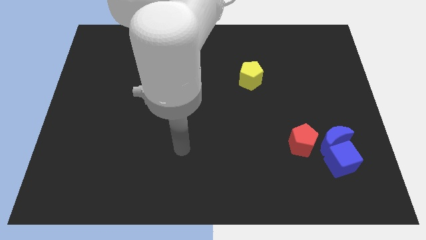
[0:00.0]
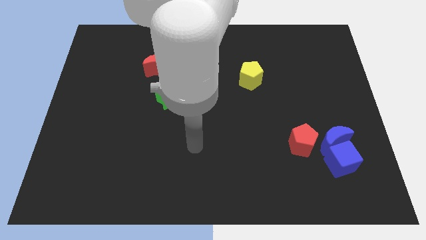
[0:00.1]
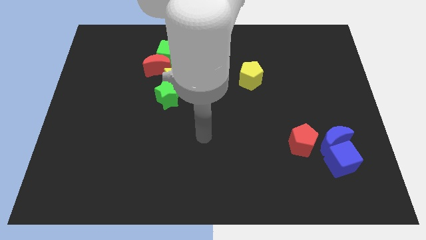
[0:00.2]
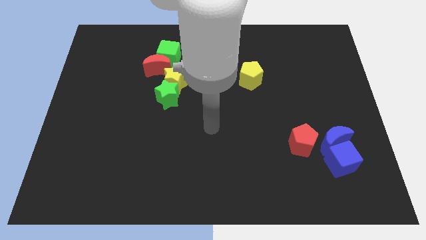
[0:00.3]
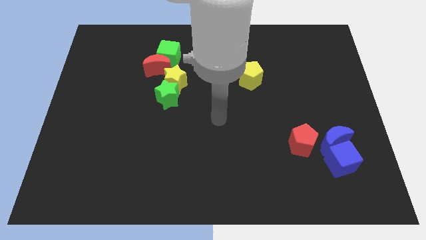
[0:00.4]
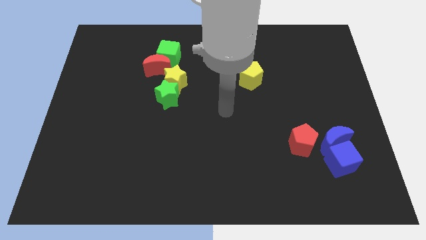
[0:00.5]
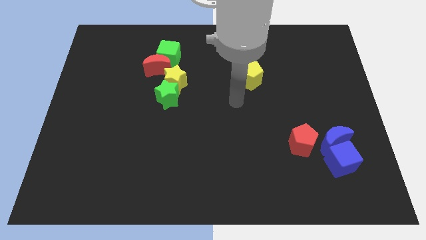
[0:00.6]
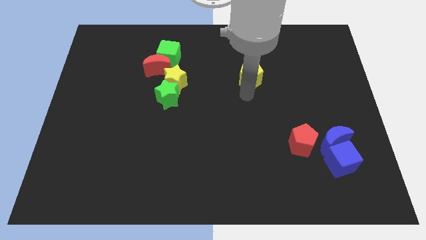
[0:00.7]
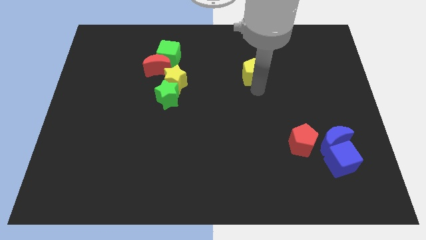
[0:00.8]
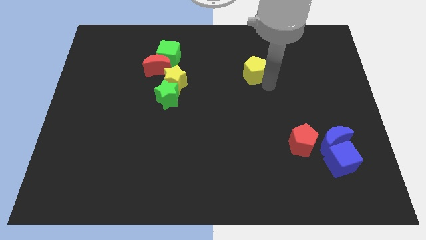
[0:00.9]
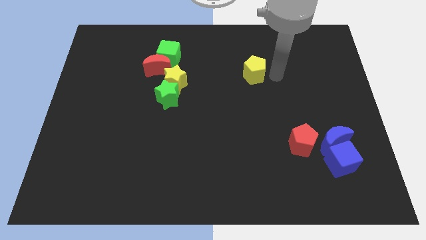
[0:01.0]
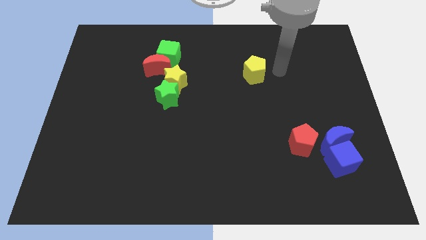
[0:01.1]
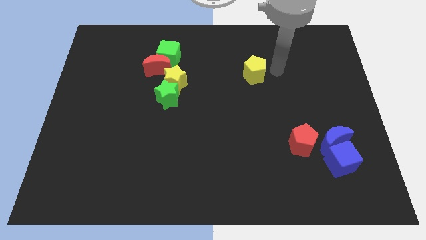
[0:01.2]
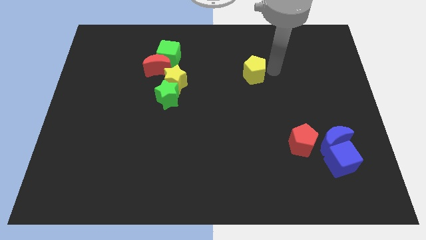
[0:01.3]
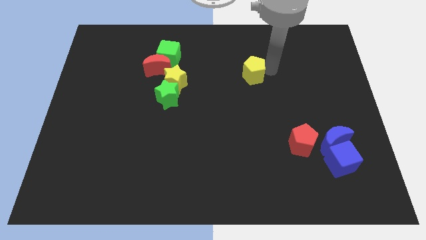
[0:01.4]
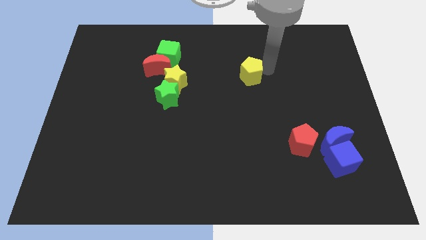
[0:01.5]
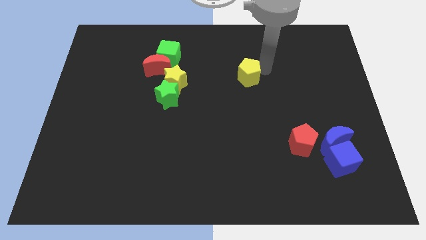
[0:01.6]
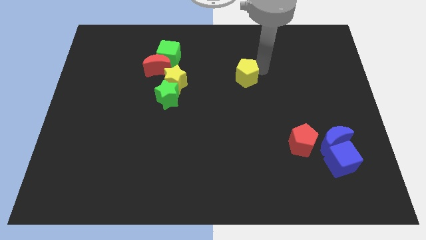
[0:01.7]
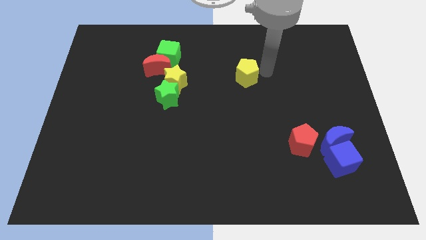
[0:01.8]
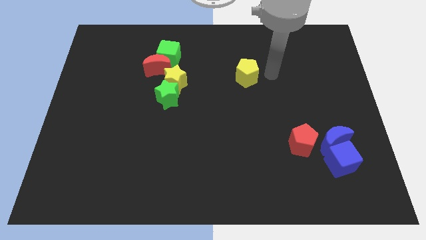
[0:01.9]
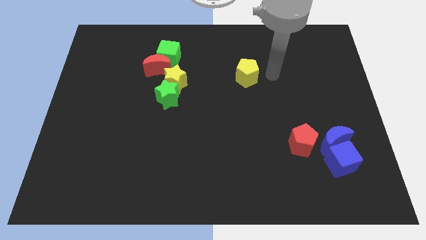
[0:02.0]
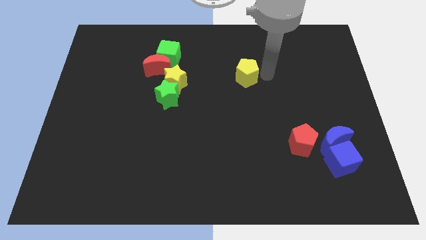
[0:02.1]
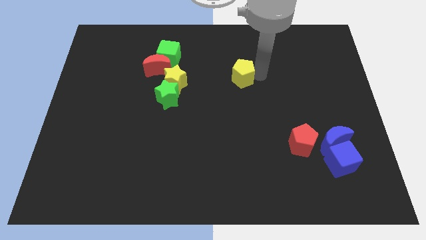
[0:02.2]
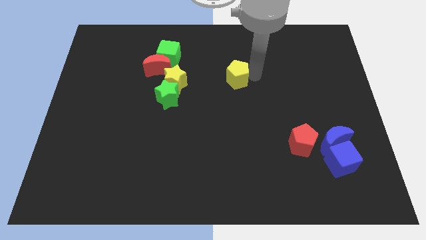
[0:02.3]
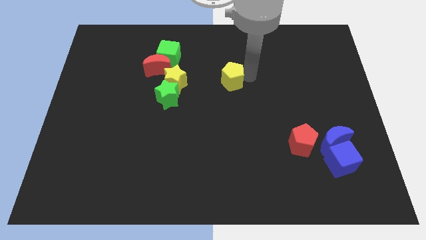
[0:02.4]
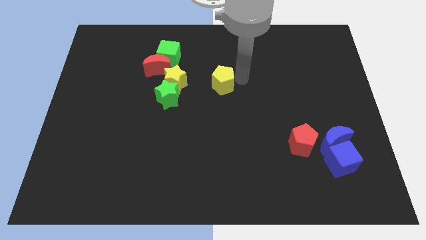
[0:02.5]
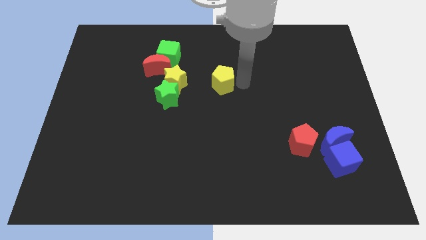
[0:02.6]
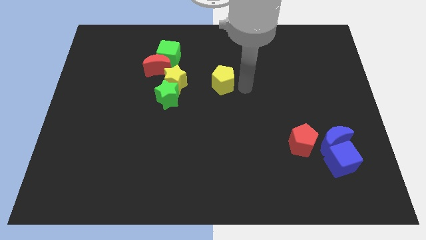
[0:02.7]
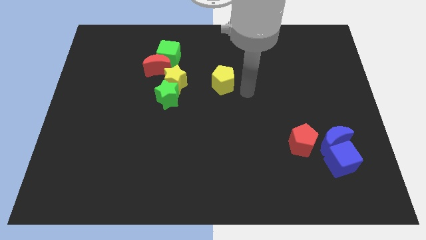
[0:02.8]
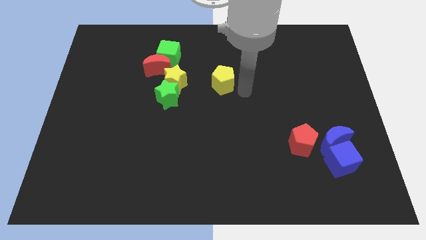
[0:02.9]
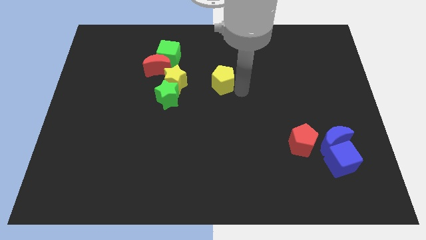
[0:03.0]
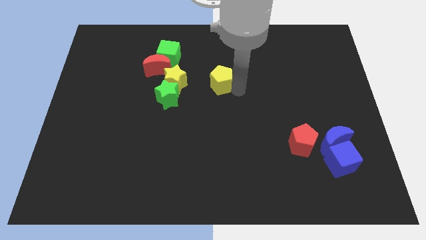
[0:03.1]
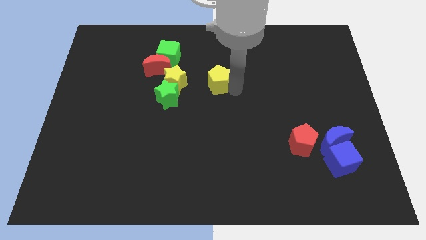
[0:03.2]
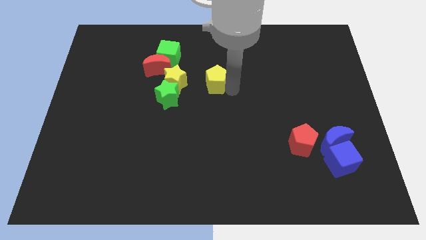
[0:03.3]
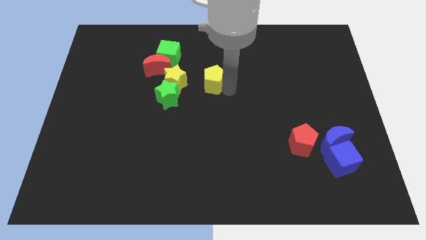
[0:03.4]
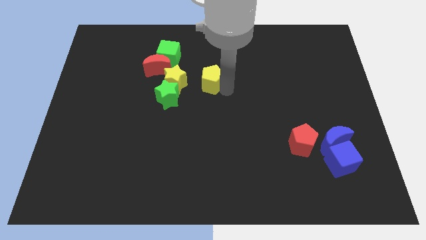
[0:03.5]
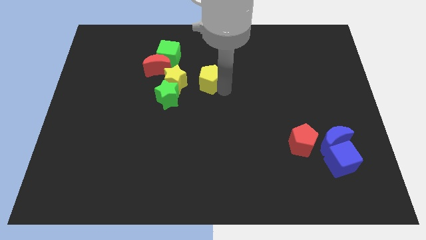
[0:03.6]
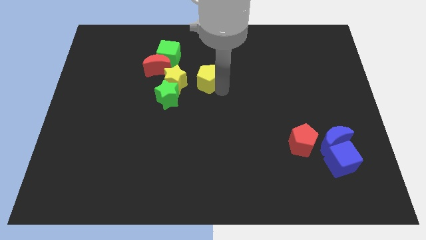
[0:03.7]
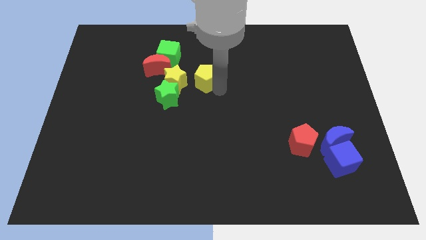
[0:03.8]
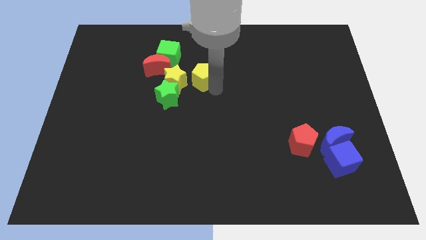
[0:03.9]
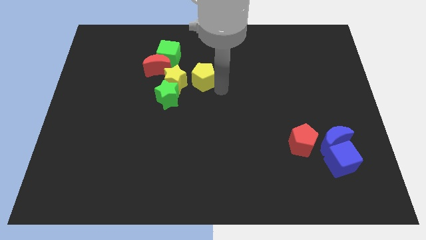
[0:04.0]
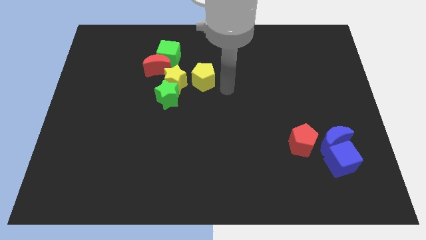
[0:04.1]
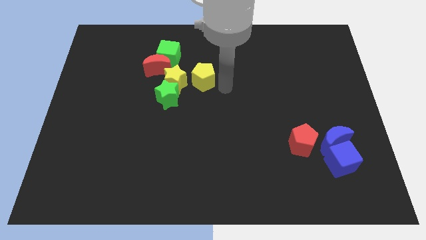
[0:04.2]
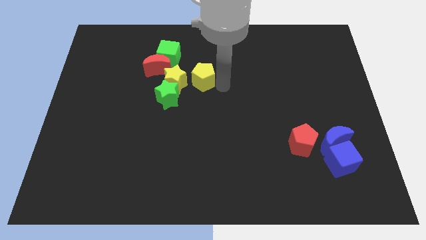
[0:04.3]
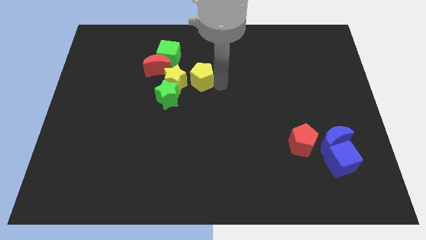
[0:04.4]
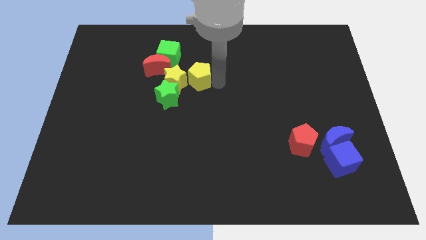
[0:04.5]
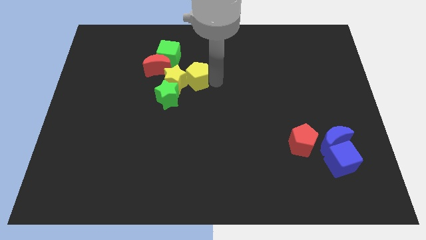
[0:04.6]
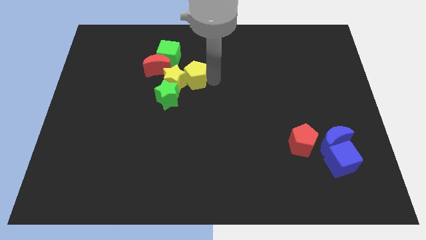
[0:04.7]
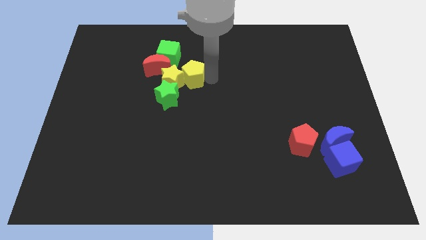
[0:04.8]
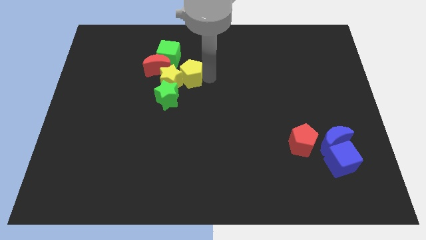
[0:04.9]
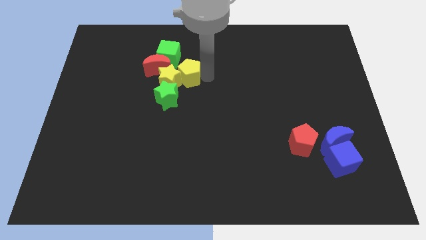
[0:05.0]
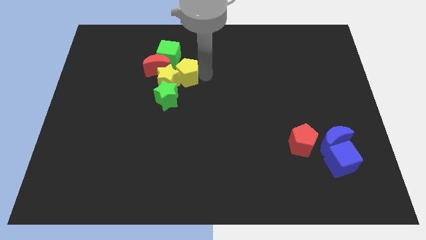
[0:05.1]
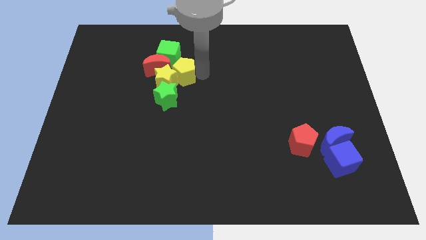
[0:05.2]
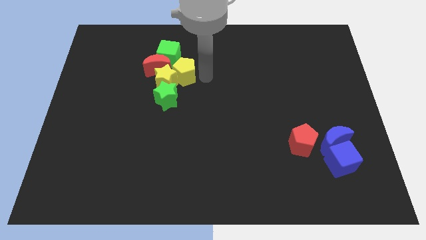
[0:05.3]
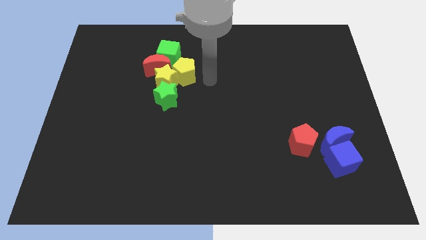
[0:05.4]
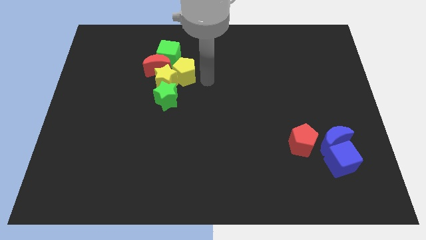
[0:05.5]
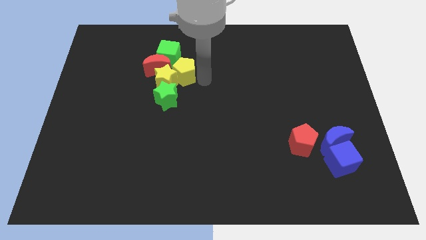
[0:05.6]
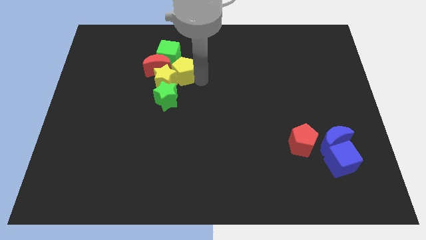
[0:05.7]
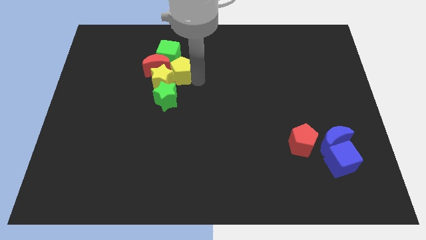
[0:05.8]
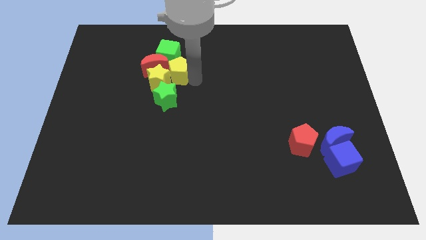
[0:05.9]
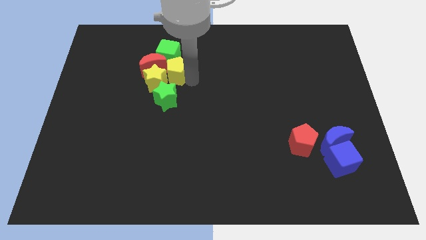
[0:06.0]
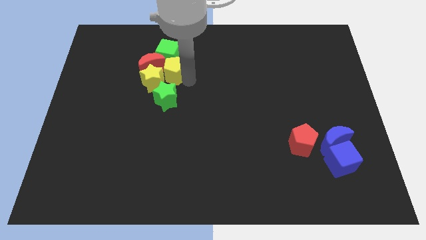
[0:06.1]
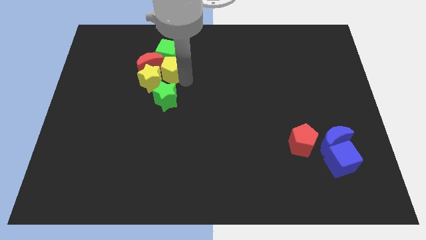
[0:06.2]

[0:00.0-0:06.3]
put the yellow pentagon close to the red moon

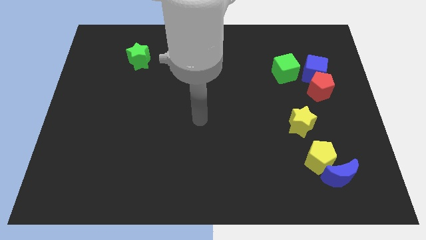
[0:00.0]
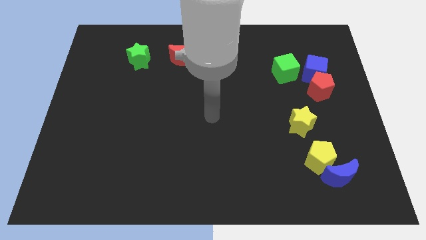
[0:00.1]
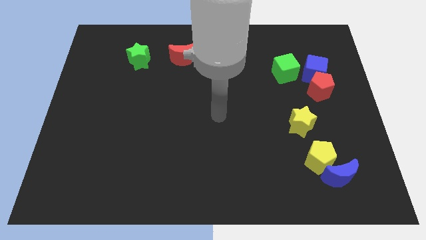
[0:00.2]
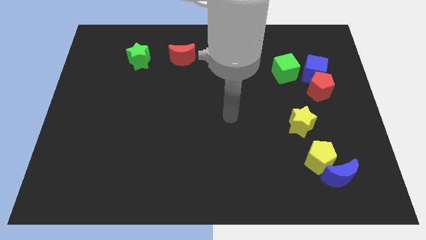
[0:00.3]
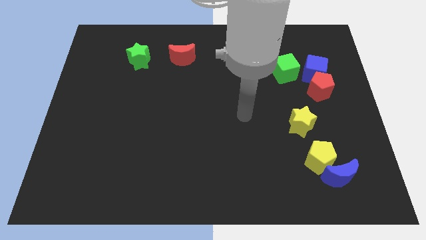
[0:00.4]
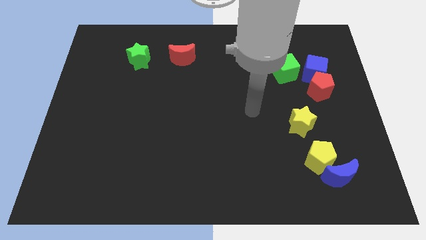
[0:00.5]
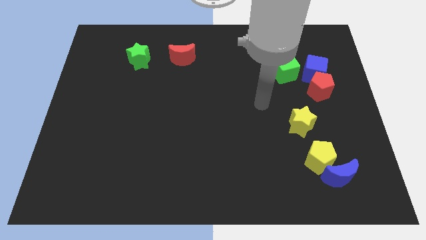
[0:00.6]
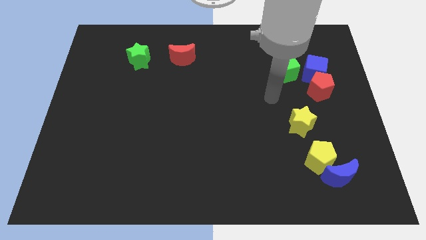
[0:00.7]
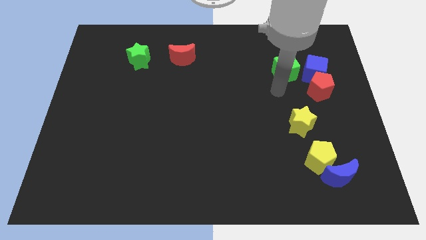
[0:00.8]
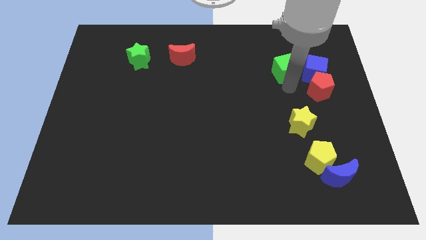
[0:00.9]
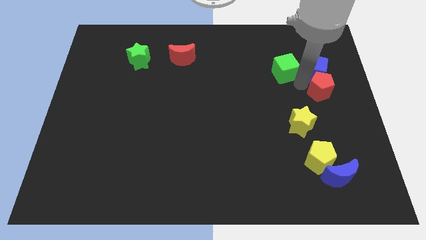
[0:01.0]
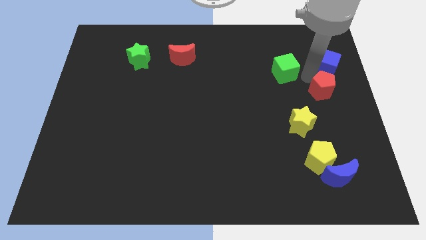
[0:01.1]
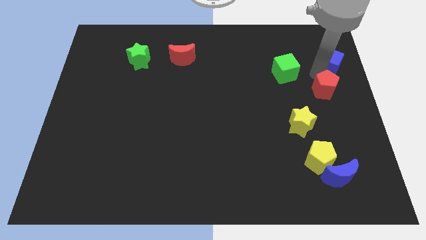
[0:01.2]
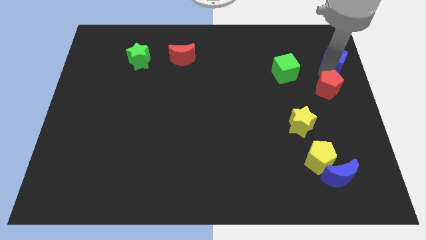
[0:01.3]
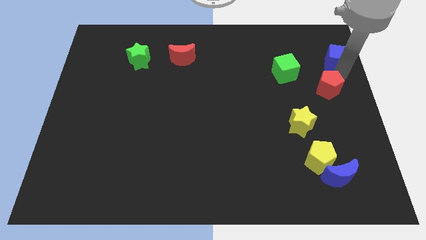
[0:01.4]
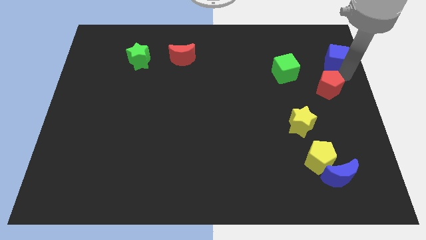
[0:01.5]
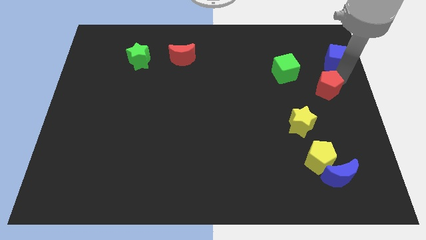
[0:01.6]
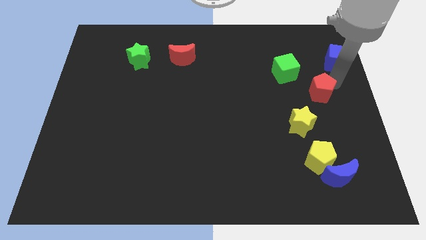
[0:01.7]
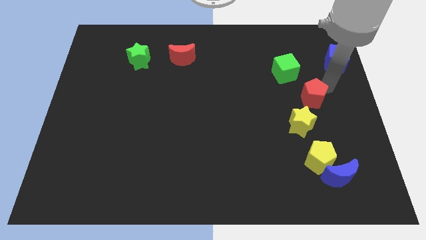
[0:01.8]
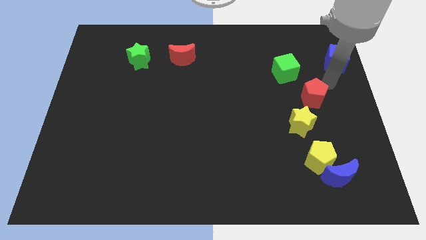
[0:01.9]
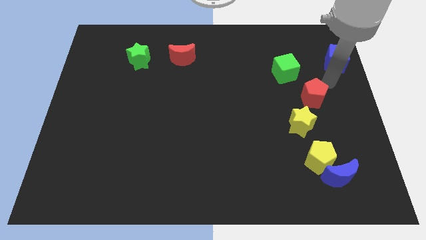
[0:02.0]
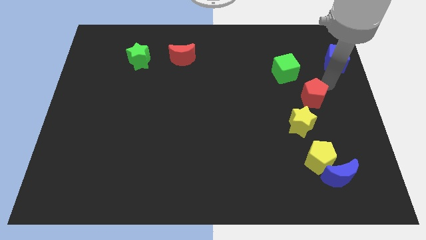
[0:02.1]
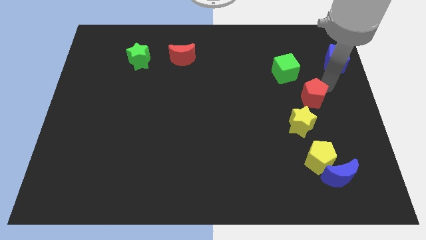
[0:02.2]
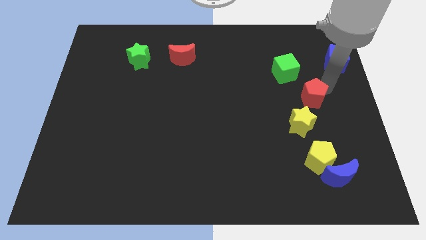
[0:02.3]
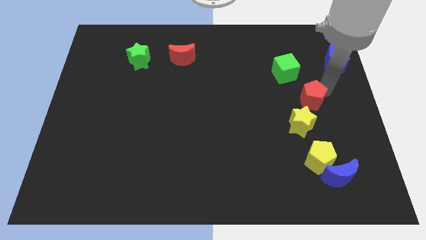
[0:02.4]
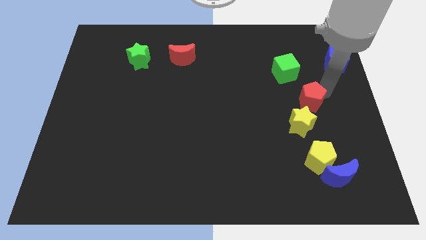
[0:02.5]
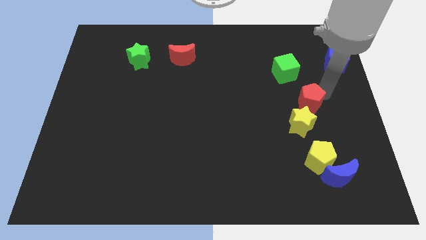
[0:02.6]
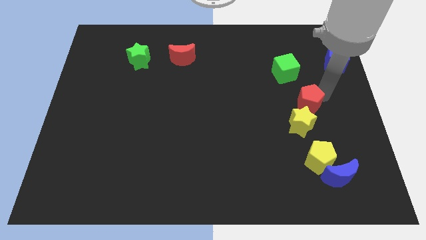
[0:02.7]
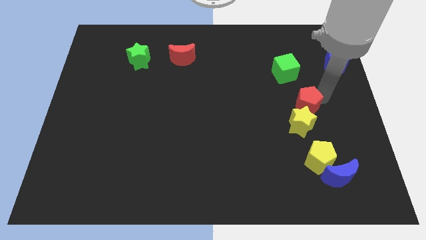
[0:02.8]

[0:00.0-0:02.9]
slide the red pentagon close to the yellow star
